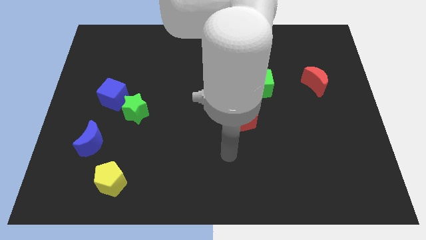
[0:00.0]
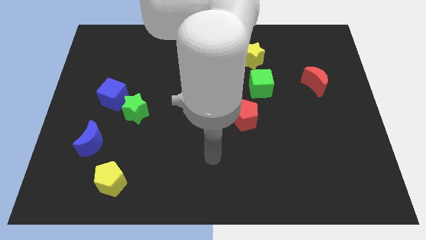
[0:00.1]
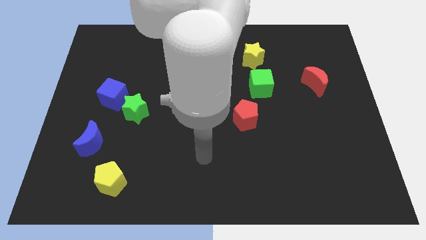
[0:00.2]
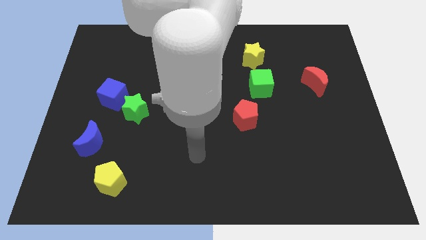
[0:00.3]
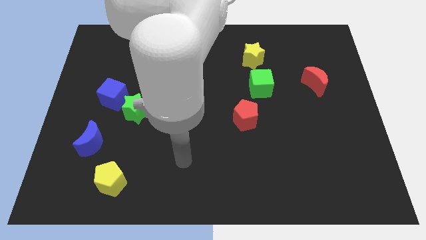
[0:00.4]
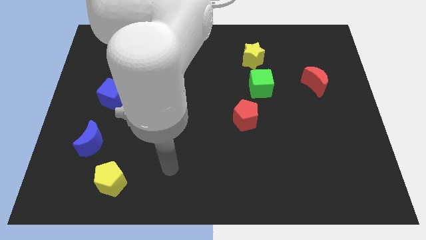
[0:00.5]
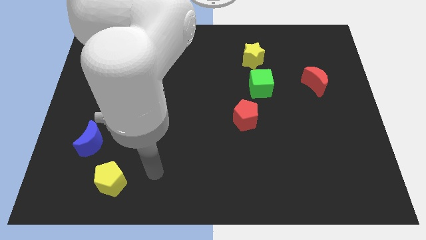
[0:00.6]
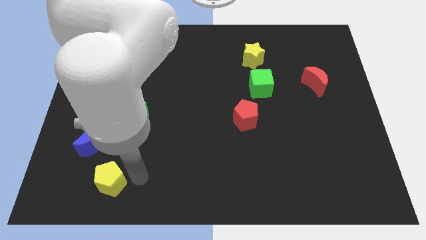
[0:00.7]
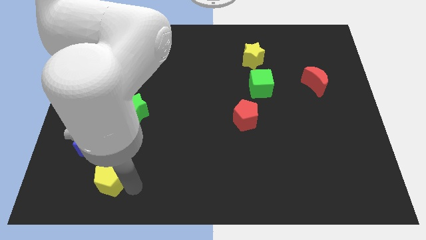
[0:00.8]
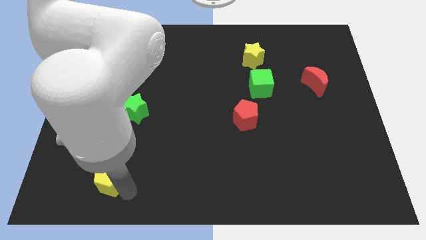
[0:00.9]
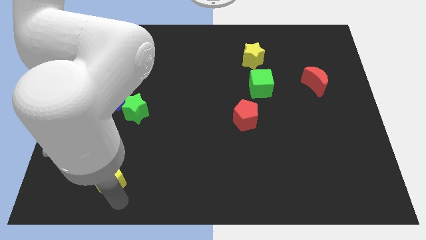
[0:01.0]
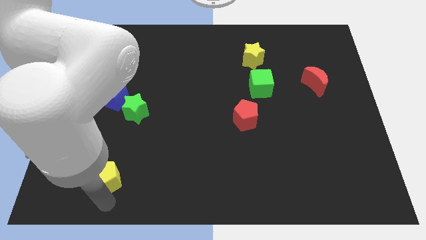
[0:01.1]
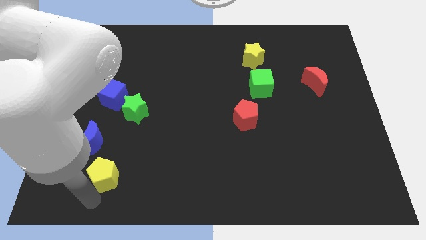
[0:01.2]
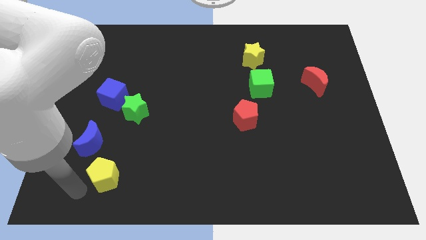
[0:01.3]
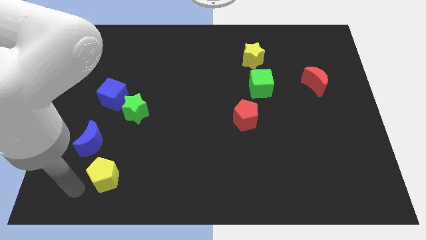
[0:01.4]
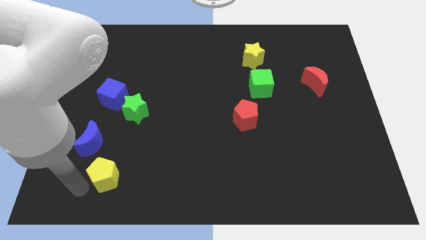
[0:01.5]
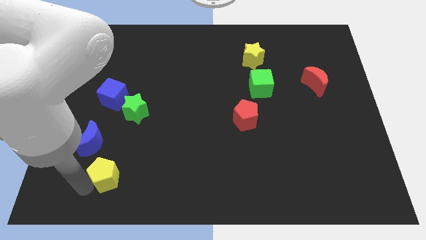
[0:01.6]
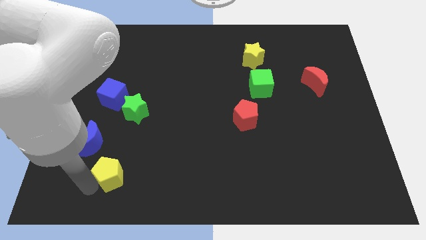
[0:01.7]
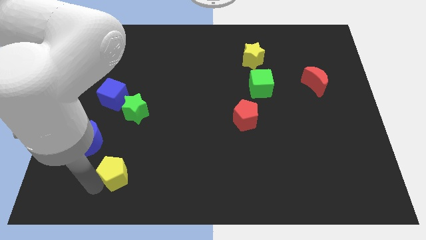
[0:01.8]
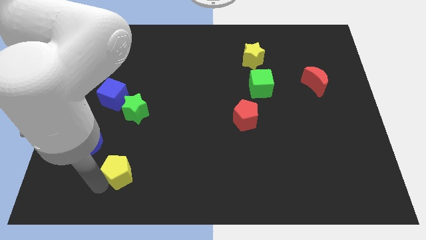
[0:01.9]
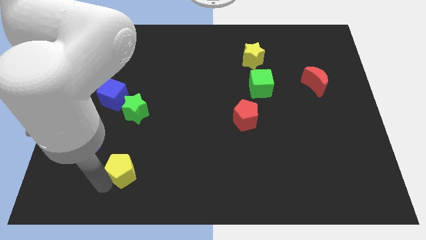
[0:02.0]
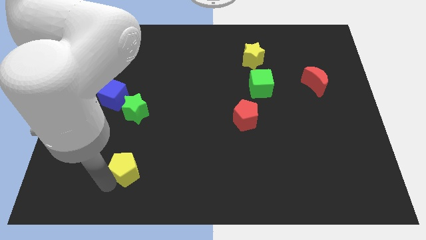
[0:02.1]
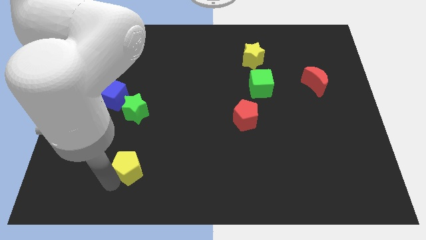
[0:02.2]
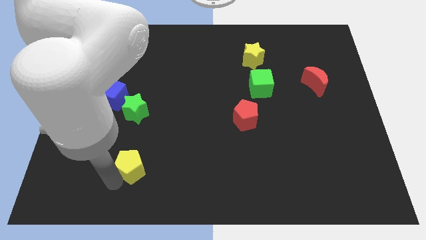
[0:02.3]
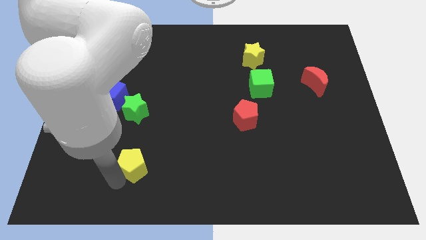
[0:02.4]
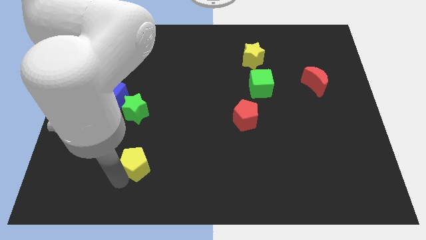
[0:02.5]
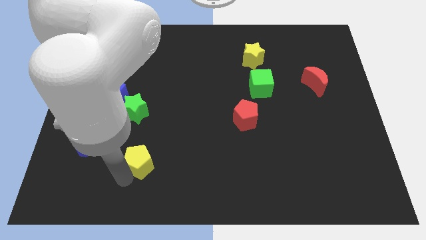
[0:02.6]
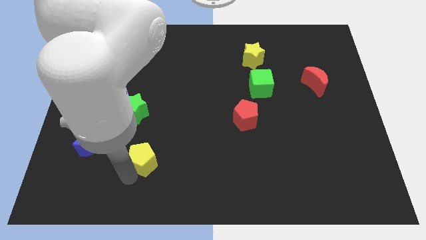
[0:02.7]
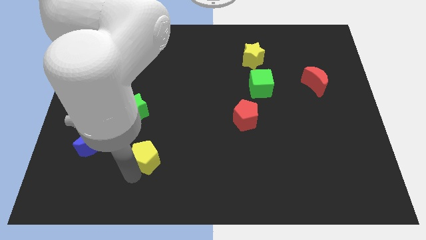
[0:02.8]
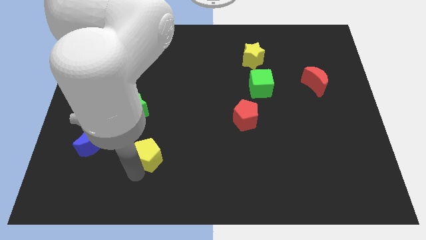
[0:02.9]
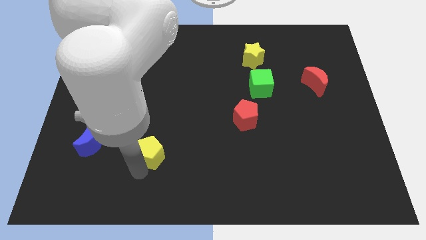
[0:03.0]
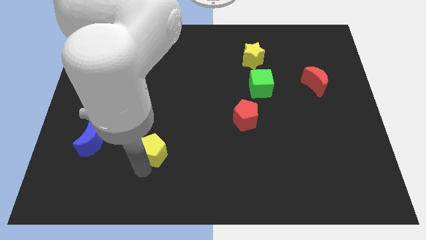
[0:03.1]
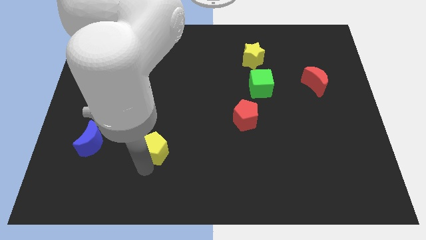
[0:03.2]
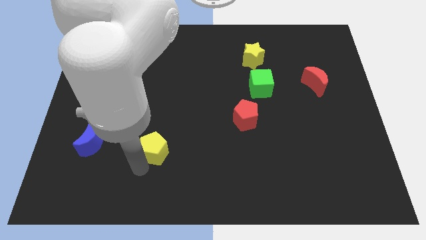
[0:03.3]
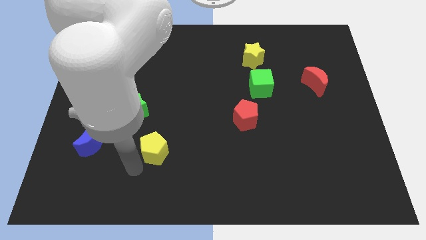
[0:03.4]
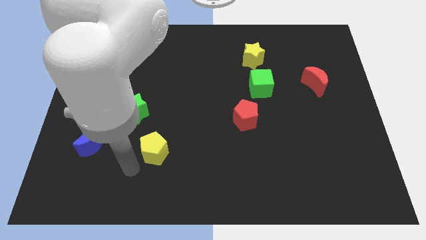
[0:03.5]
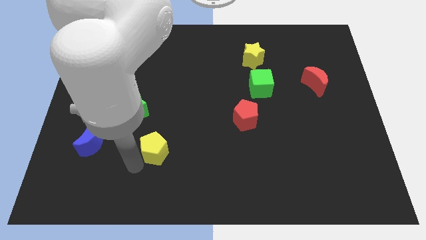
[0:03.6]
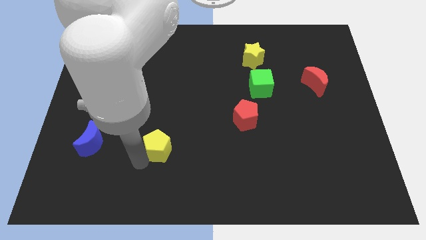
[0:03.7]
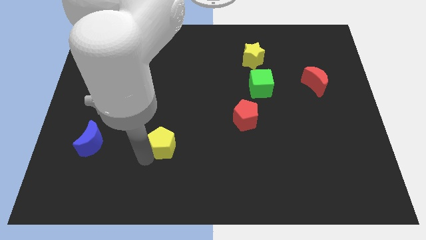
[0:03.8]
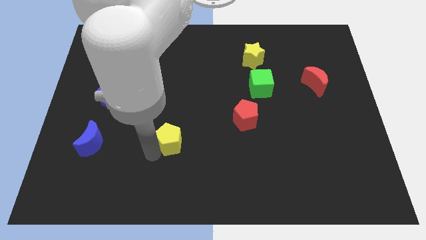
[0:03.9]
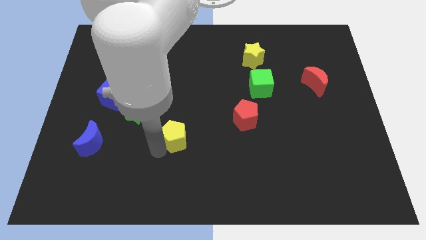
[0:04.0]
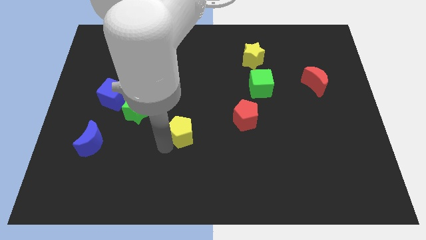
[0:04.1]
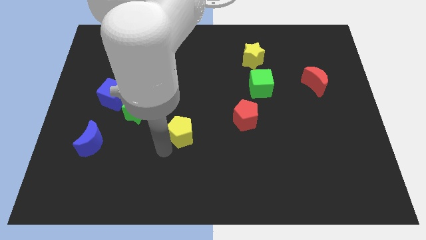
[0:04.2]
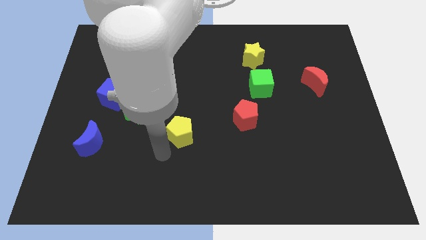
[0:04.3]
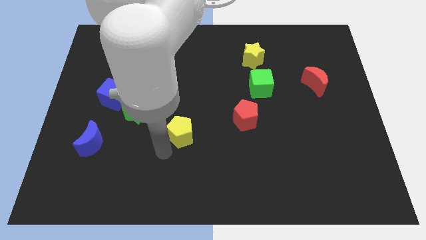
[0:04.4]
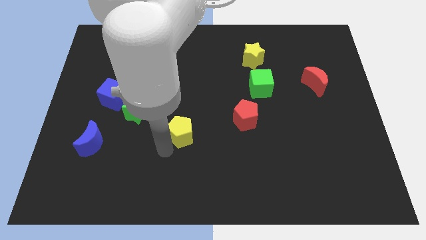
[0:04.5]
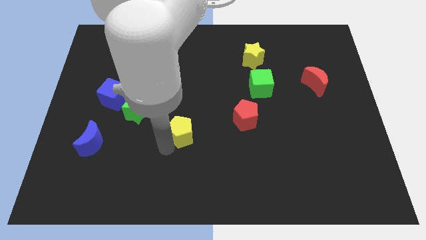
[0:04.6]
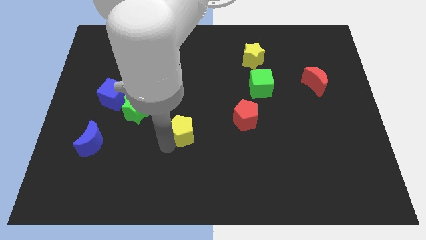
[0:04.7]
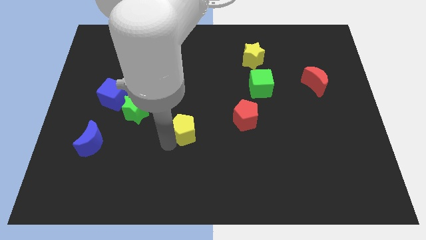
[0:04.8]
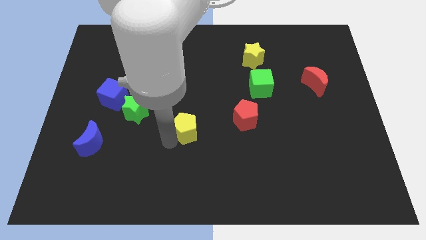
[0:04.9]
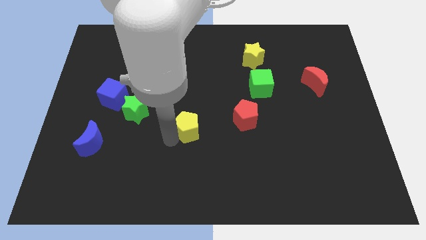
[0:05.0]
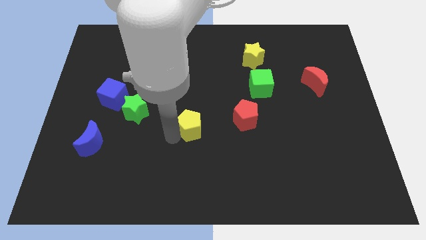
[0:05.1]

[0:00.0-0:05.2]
slide the yellow pentagon up and to the right diagonally

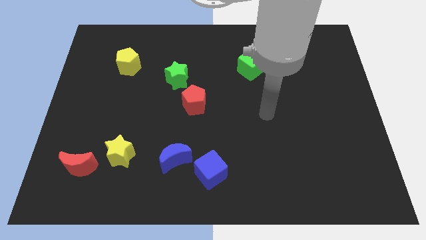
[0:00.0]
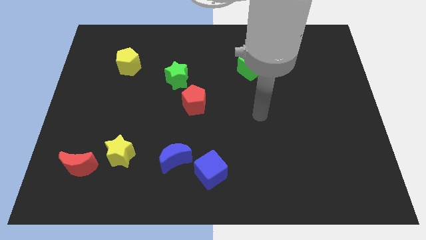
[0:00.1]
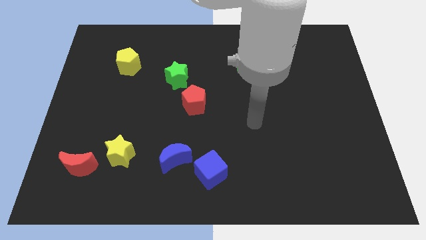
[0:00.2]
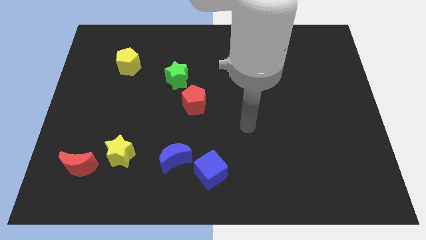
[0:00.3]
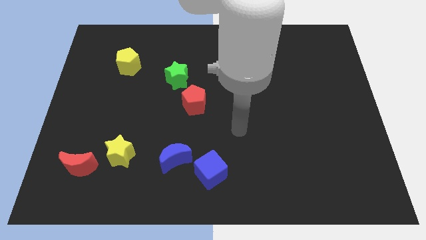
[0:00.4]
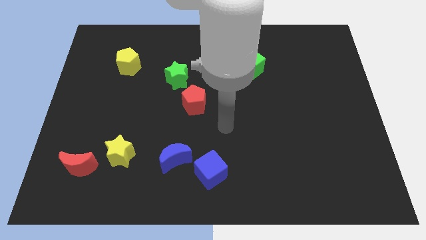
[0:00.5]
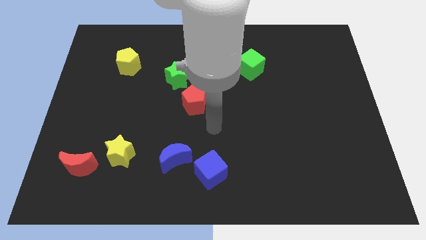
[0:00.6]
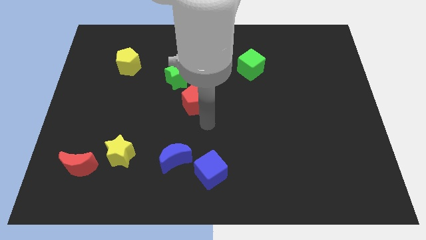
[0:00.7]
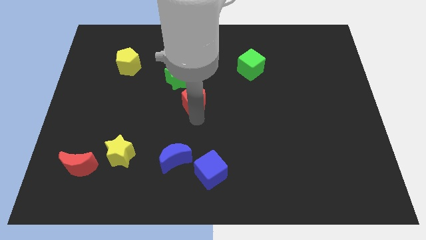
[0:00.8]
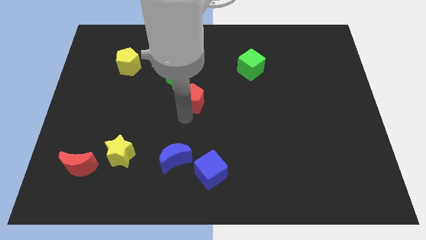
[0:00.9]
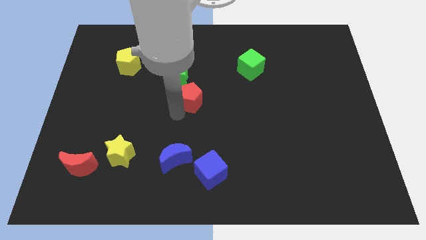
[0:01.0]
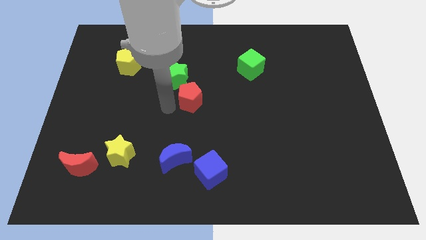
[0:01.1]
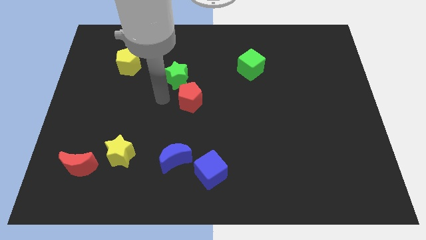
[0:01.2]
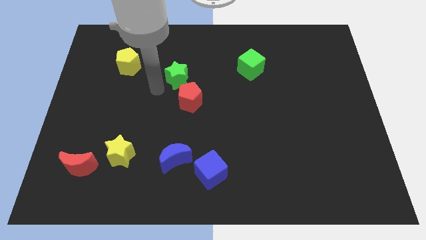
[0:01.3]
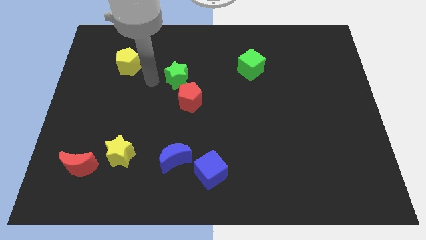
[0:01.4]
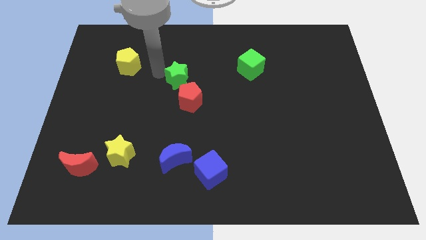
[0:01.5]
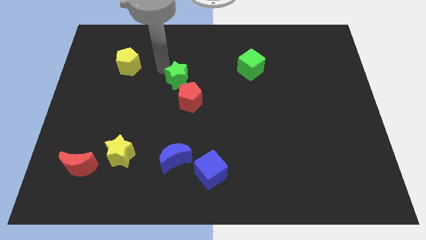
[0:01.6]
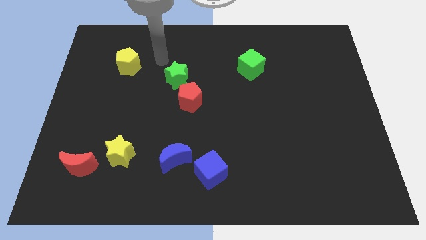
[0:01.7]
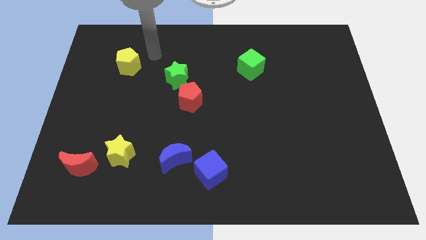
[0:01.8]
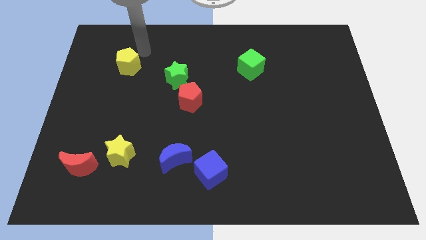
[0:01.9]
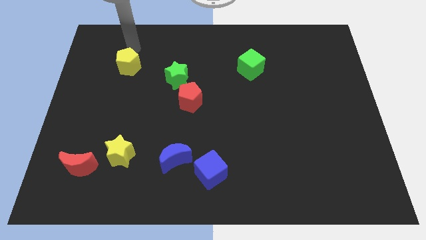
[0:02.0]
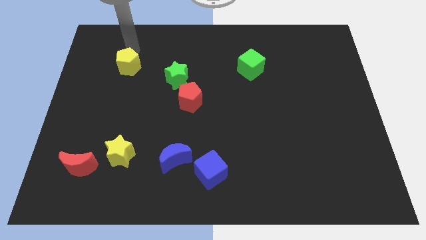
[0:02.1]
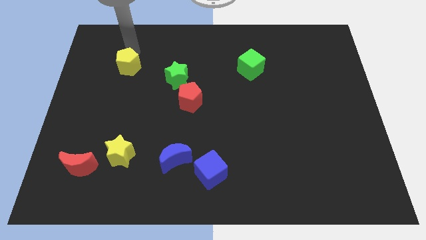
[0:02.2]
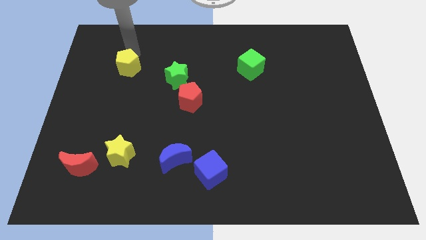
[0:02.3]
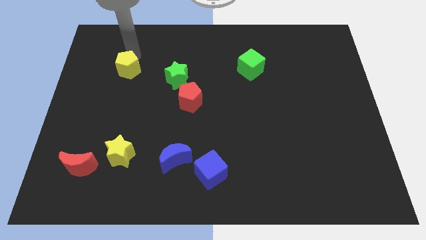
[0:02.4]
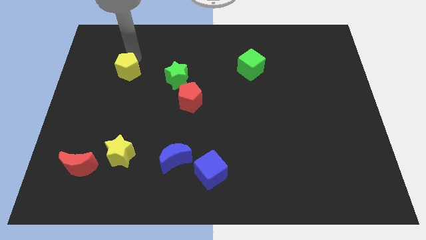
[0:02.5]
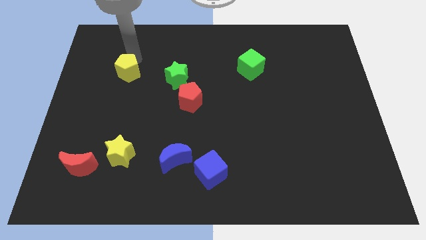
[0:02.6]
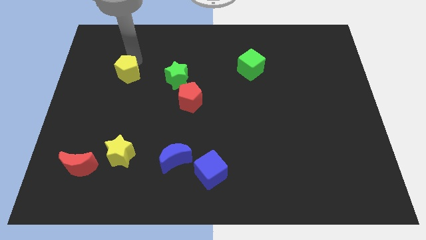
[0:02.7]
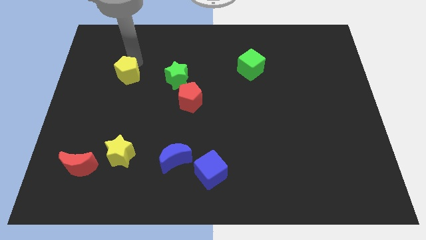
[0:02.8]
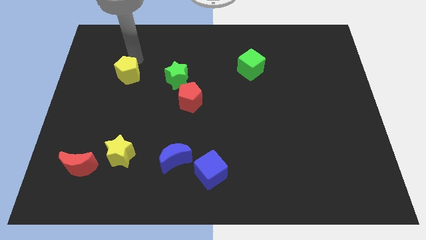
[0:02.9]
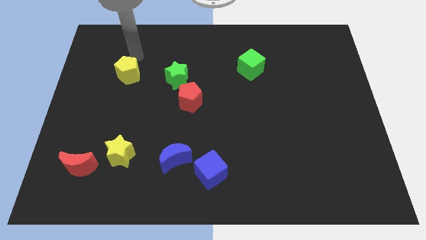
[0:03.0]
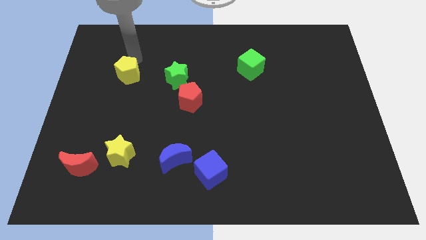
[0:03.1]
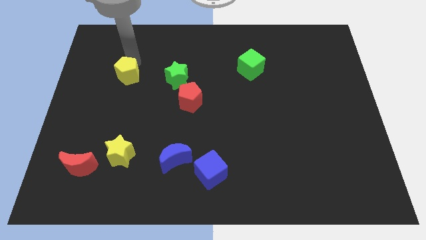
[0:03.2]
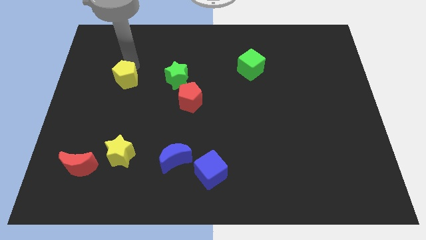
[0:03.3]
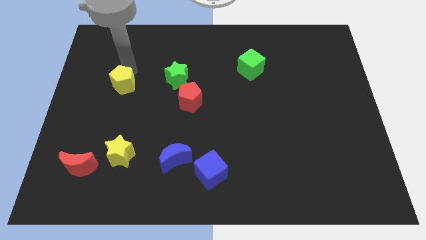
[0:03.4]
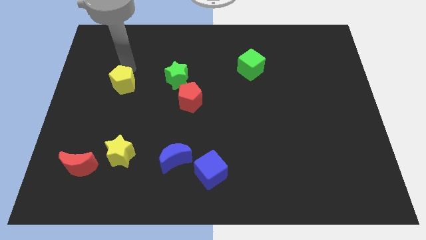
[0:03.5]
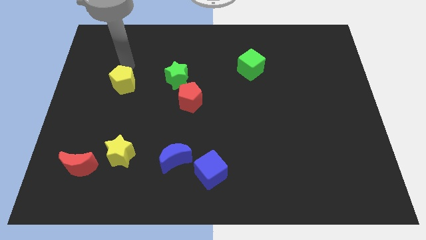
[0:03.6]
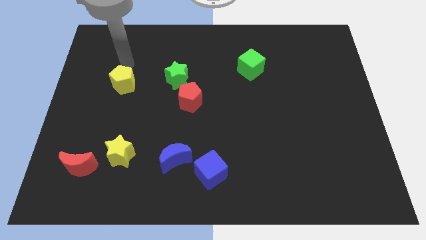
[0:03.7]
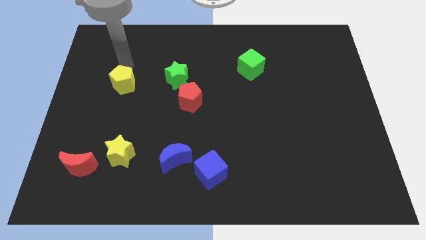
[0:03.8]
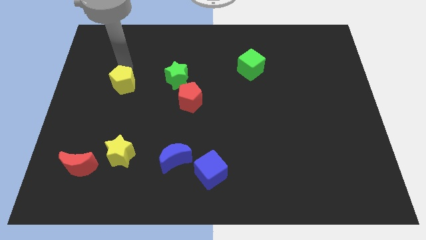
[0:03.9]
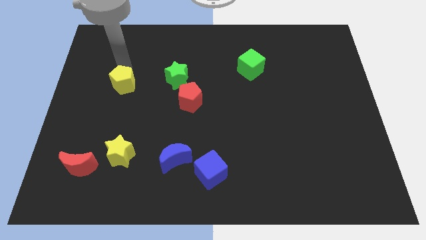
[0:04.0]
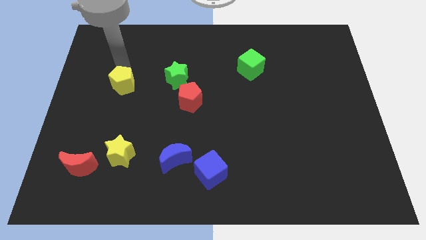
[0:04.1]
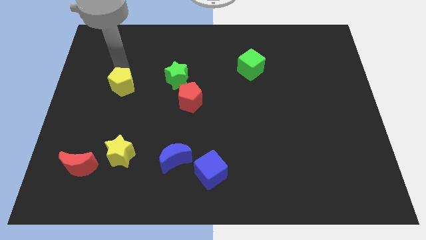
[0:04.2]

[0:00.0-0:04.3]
move the yellow pentagon slightly downwards
